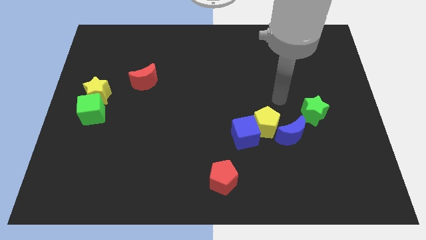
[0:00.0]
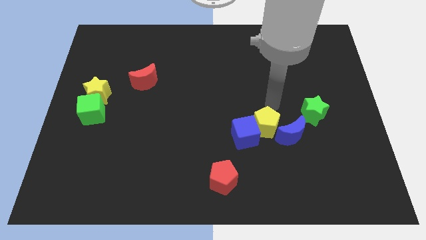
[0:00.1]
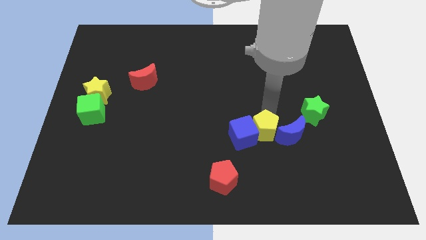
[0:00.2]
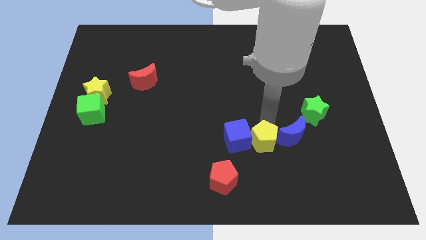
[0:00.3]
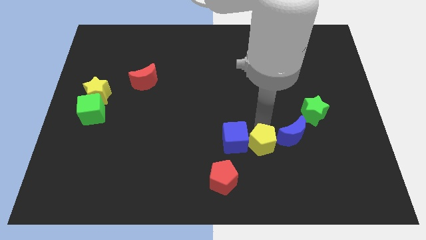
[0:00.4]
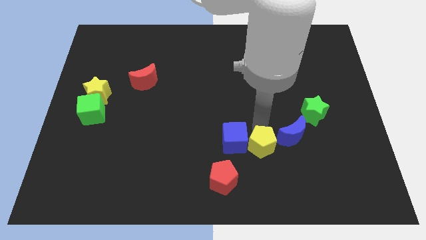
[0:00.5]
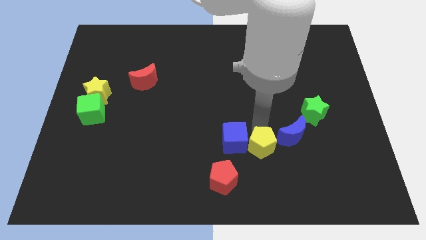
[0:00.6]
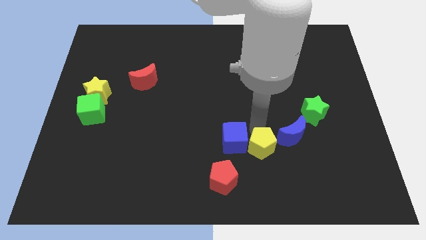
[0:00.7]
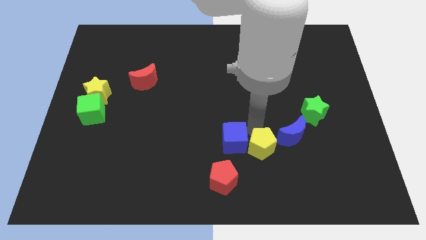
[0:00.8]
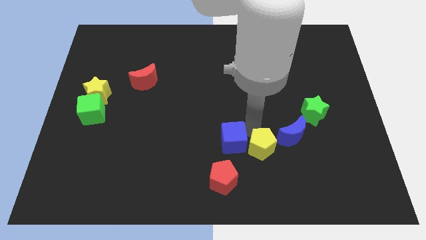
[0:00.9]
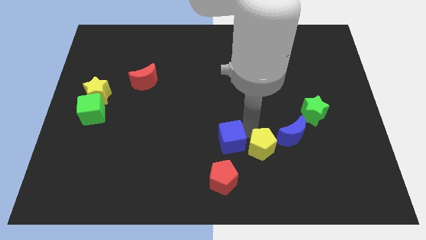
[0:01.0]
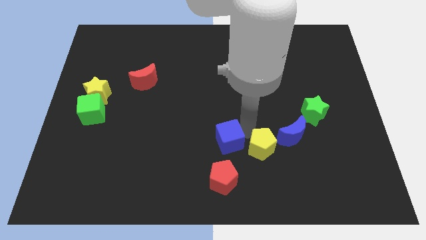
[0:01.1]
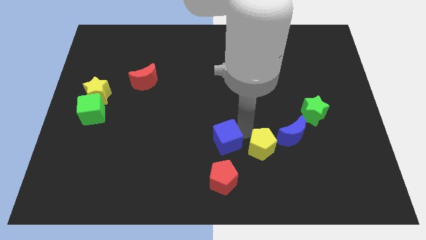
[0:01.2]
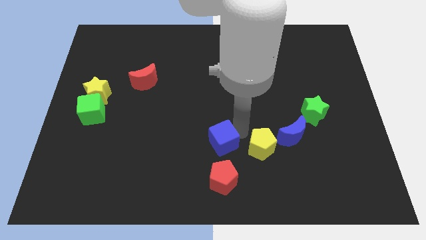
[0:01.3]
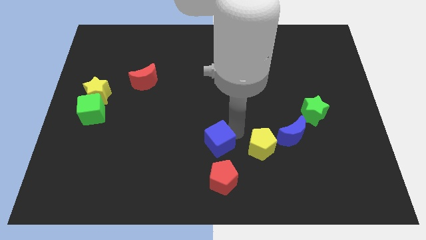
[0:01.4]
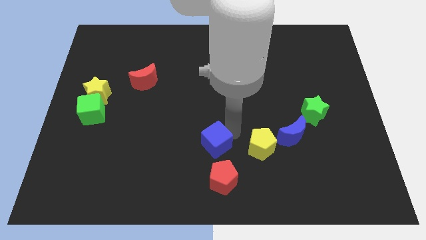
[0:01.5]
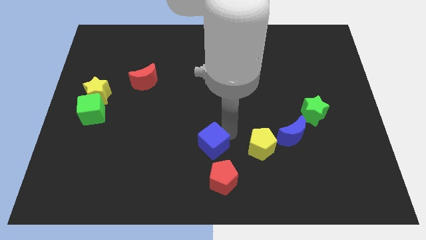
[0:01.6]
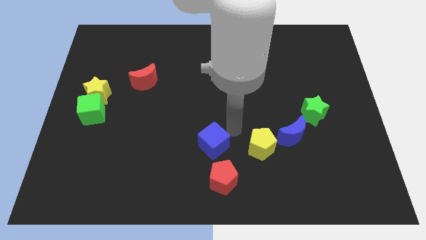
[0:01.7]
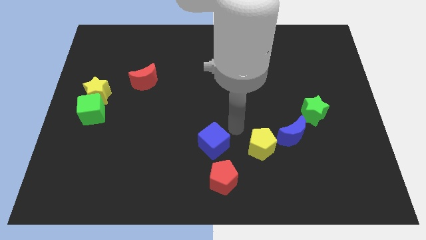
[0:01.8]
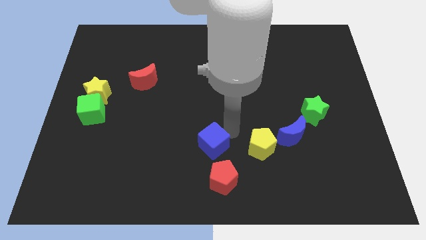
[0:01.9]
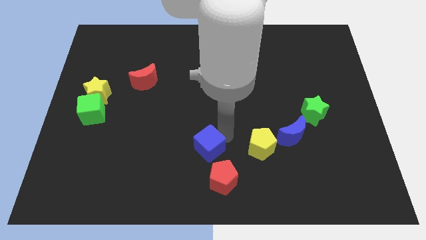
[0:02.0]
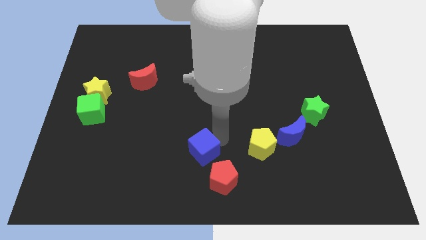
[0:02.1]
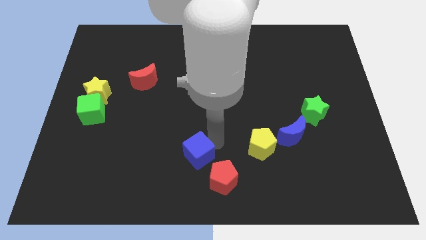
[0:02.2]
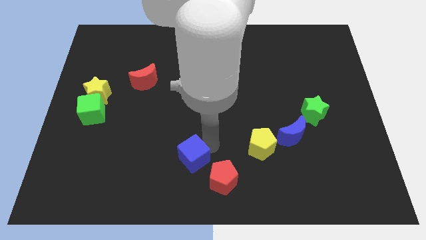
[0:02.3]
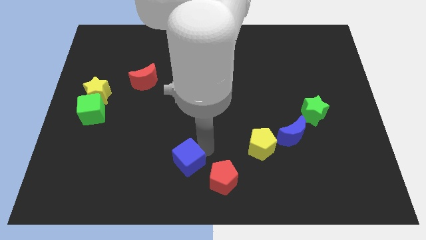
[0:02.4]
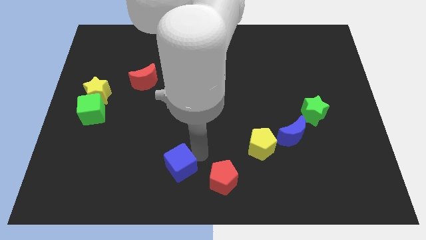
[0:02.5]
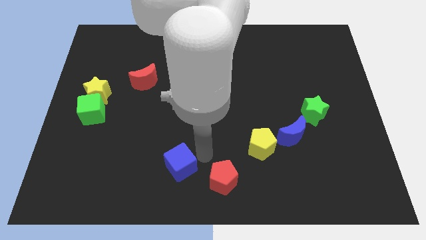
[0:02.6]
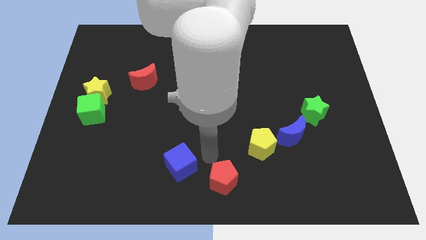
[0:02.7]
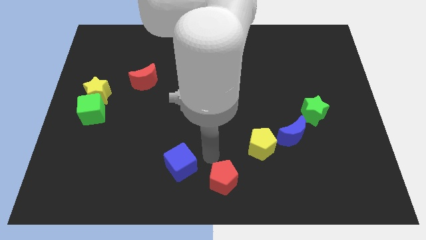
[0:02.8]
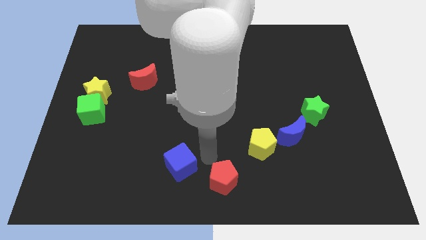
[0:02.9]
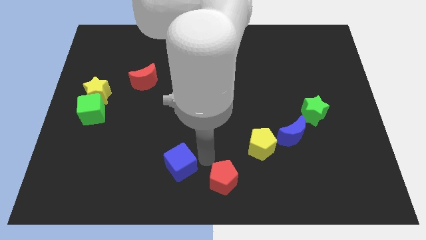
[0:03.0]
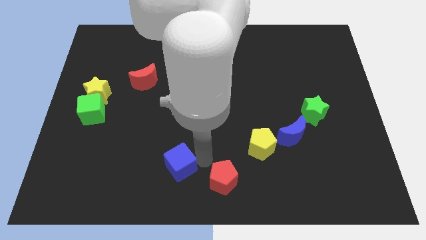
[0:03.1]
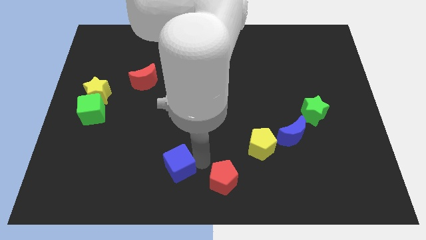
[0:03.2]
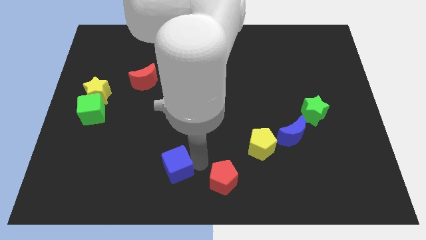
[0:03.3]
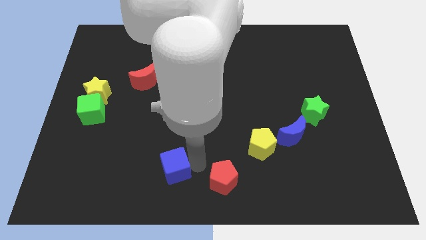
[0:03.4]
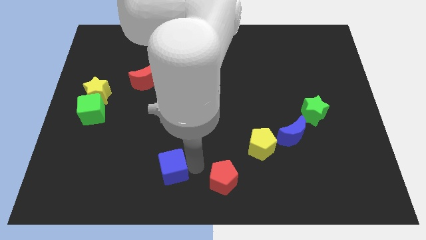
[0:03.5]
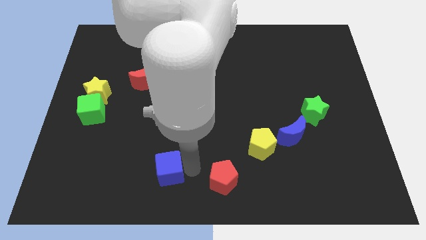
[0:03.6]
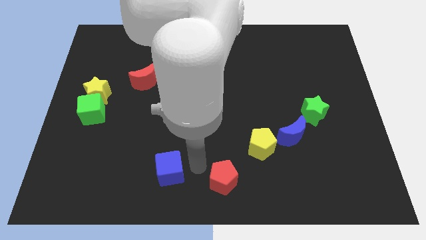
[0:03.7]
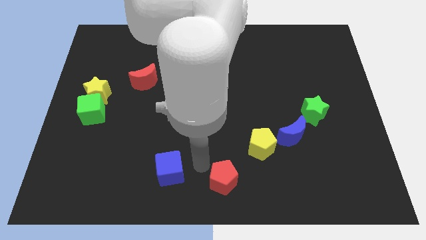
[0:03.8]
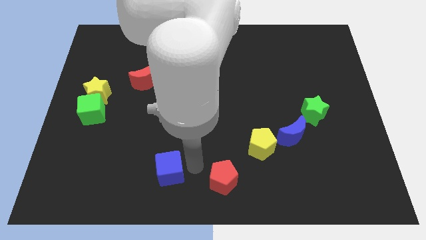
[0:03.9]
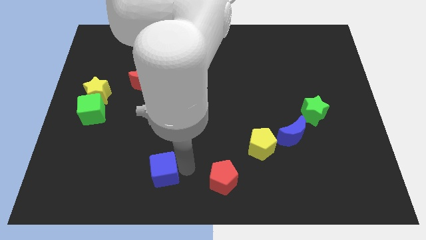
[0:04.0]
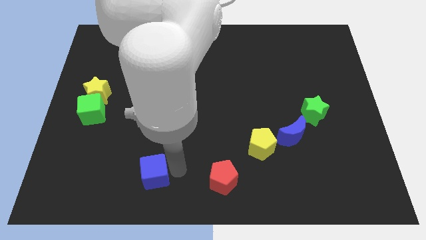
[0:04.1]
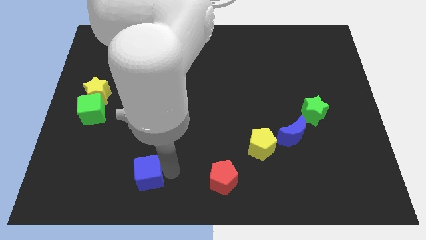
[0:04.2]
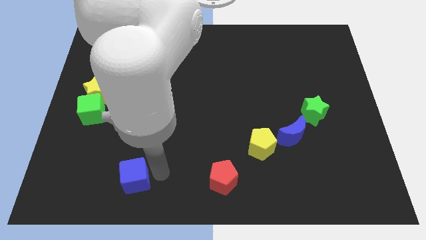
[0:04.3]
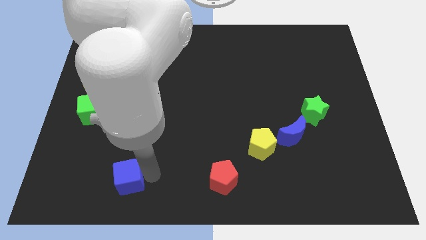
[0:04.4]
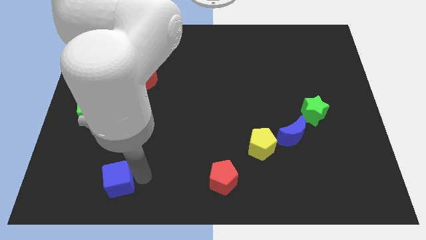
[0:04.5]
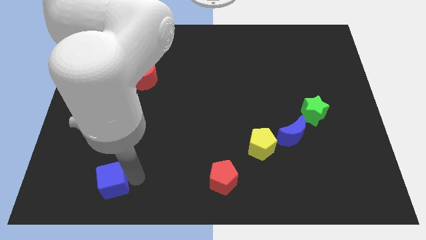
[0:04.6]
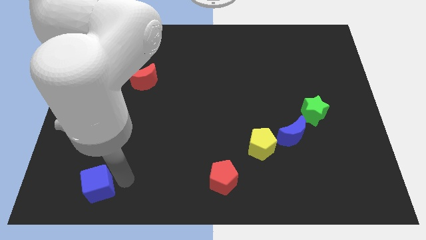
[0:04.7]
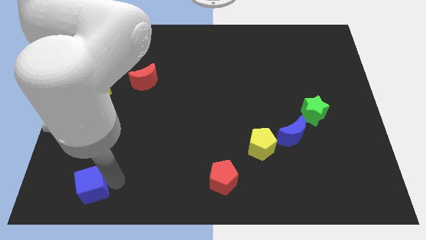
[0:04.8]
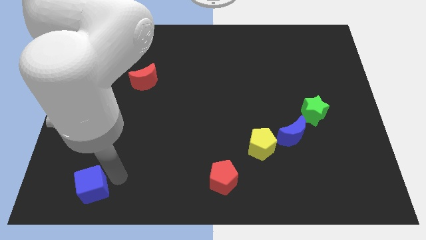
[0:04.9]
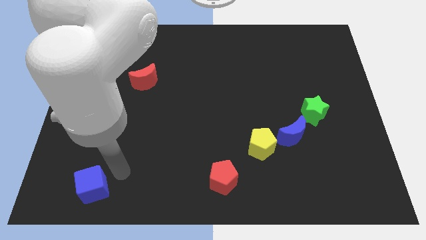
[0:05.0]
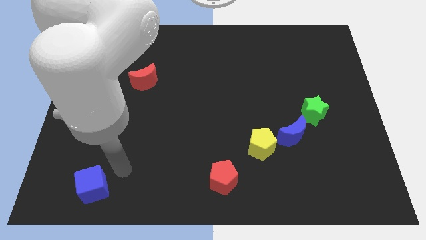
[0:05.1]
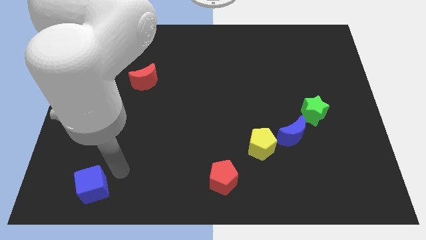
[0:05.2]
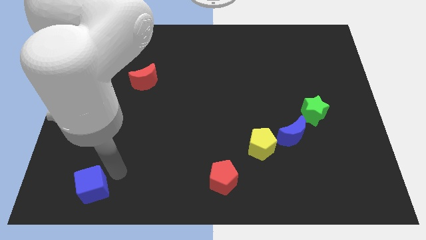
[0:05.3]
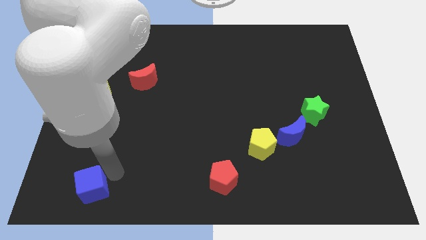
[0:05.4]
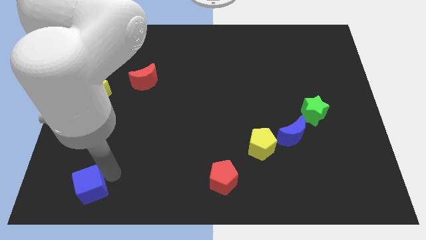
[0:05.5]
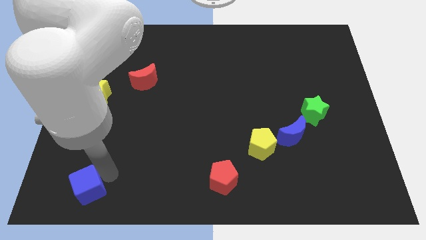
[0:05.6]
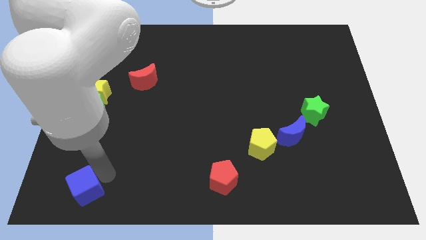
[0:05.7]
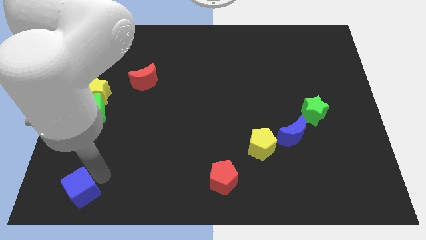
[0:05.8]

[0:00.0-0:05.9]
move the blue cube to the lower left corner

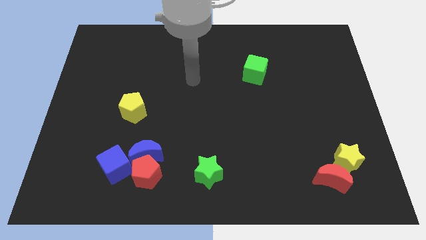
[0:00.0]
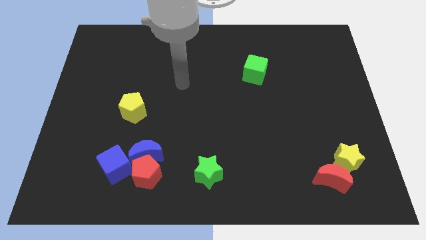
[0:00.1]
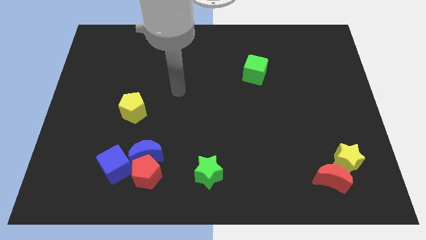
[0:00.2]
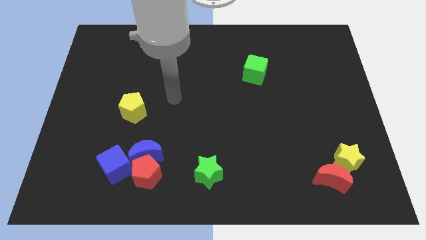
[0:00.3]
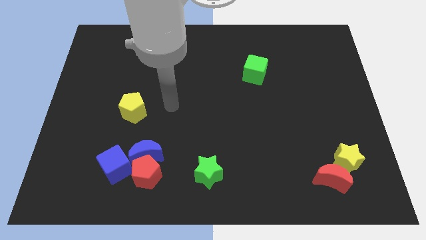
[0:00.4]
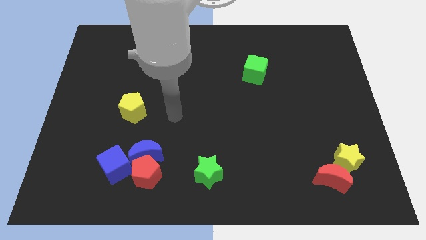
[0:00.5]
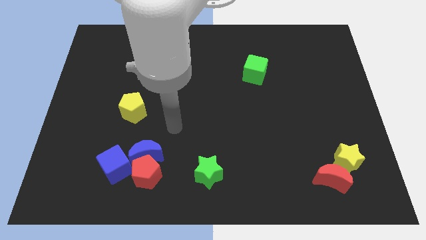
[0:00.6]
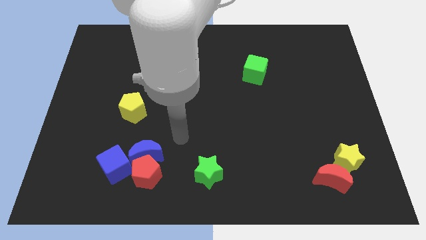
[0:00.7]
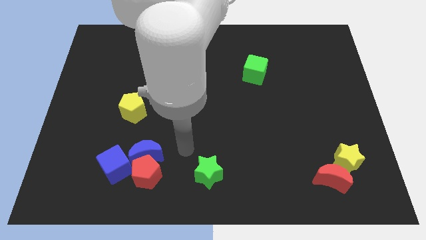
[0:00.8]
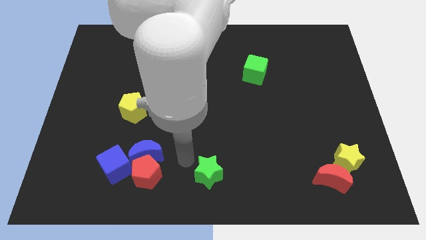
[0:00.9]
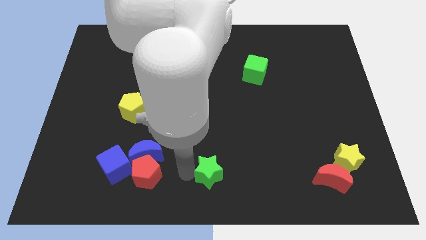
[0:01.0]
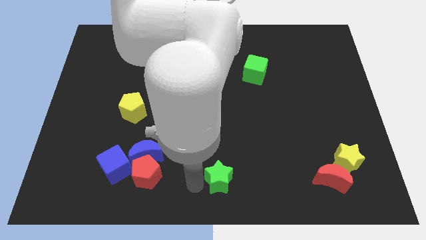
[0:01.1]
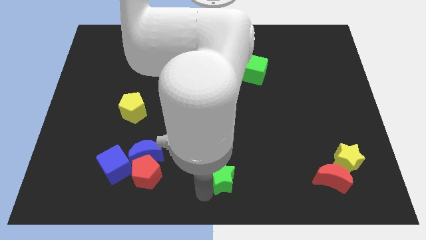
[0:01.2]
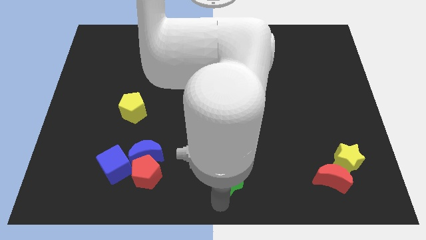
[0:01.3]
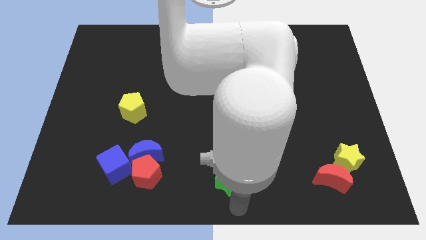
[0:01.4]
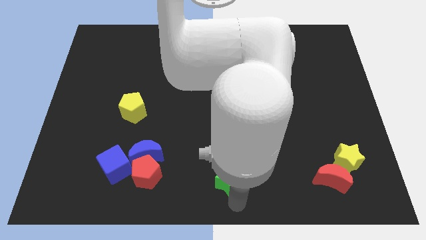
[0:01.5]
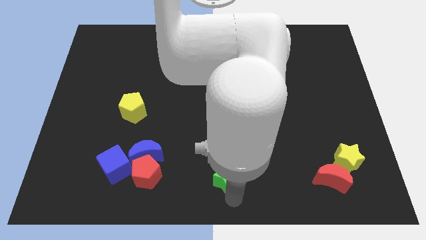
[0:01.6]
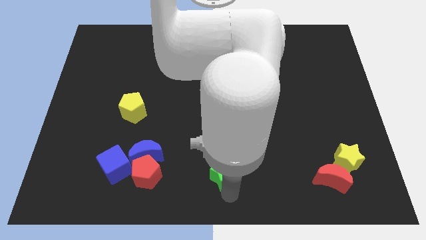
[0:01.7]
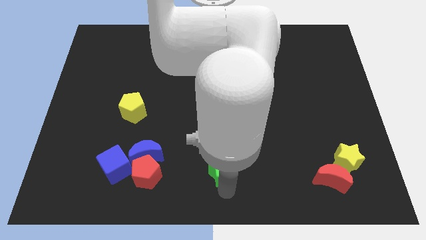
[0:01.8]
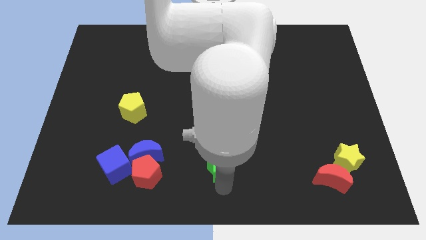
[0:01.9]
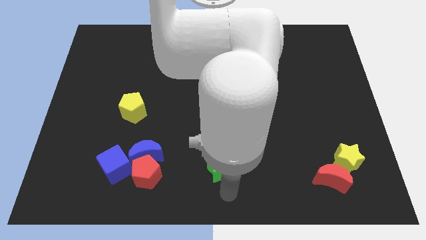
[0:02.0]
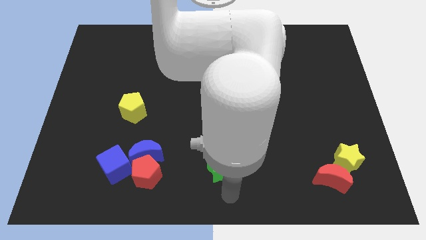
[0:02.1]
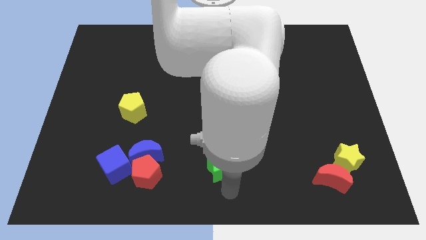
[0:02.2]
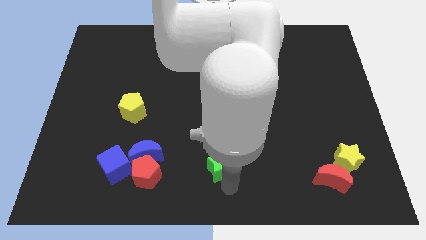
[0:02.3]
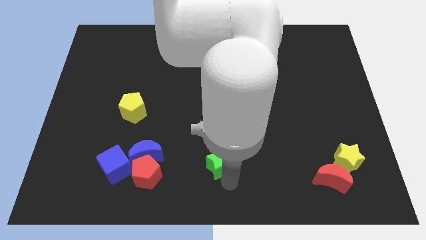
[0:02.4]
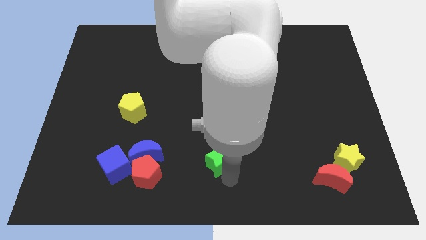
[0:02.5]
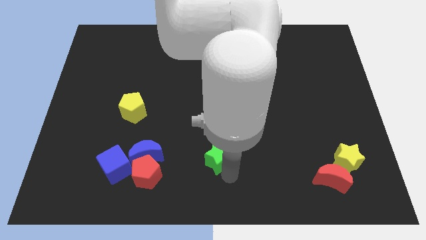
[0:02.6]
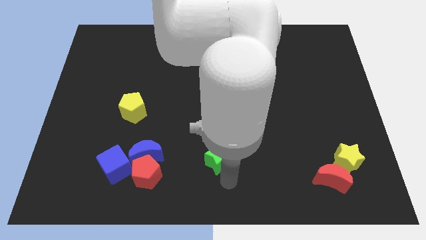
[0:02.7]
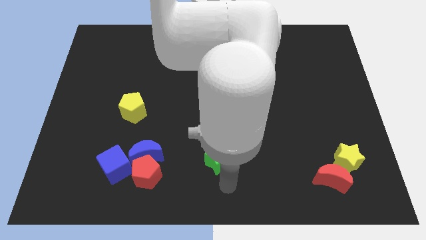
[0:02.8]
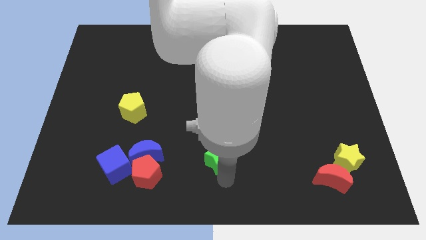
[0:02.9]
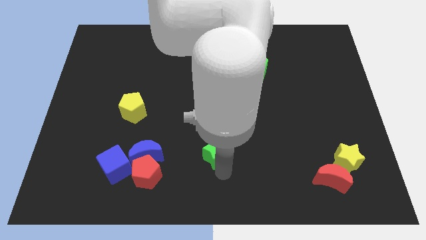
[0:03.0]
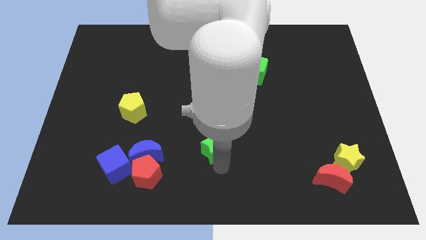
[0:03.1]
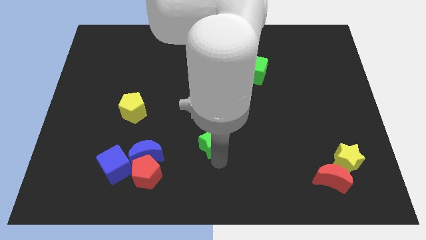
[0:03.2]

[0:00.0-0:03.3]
slide the green star to the center of the board
